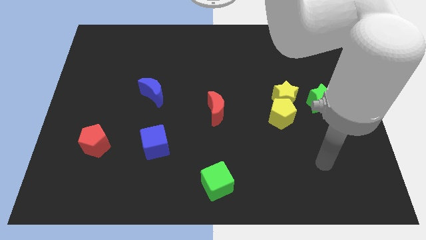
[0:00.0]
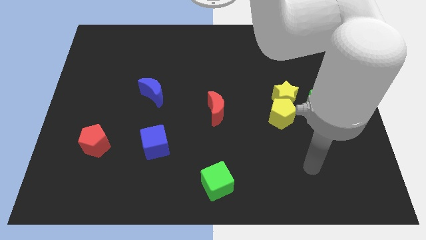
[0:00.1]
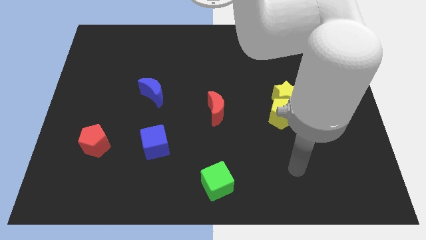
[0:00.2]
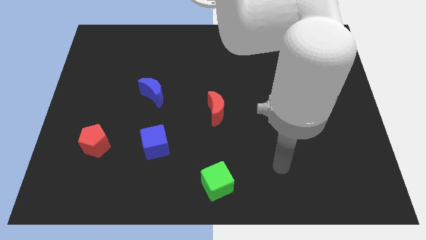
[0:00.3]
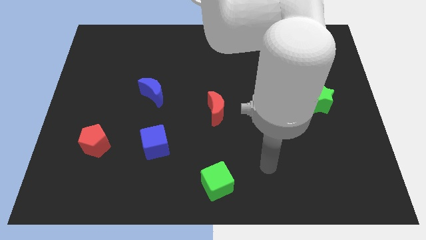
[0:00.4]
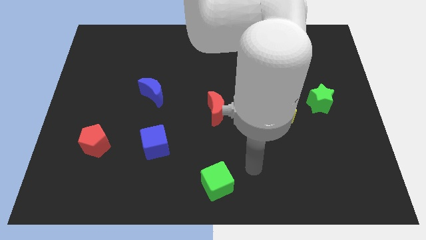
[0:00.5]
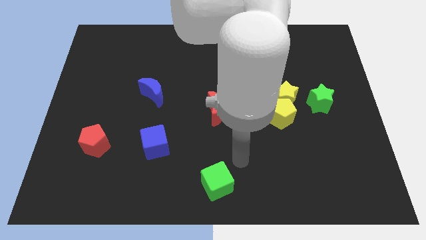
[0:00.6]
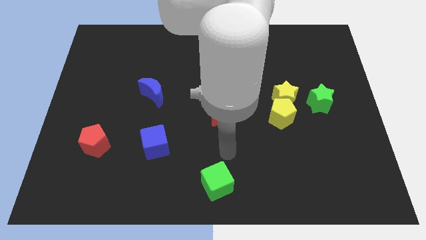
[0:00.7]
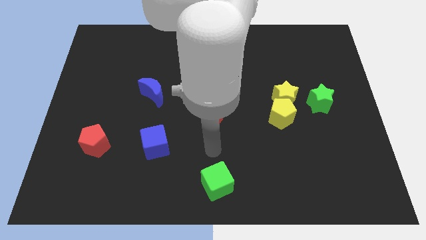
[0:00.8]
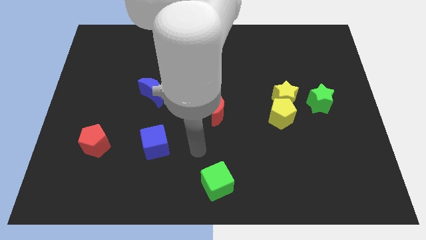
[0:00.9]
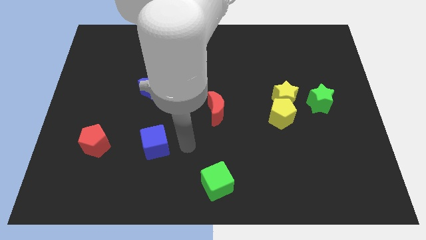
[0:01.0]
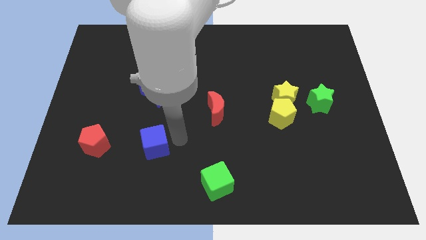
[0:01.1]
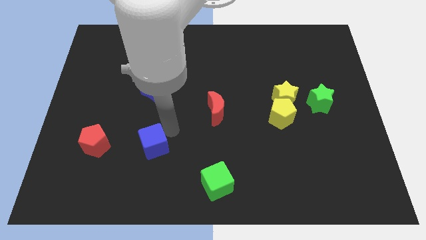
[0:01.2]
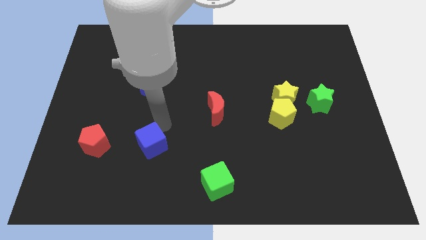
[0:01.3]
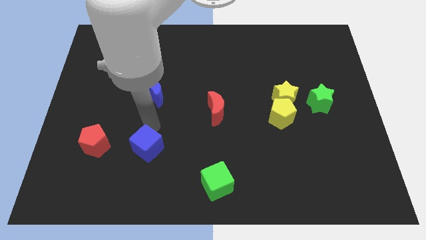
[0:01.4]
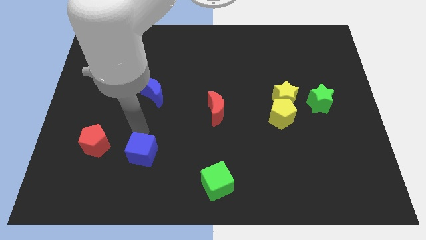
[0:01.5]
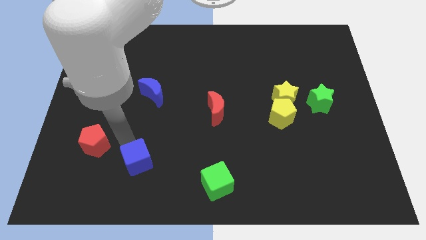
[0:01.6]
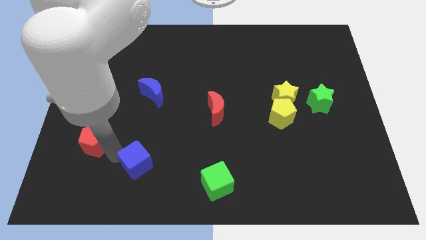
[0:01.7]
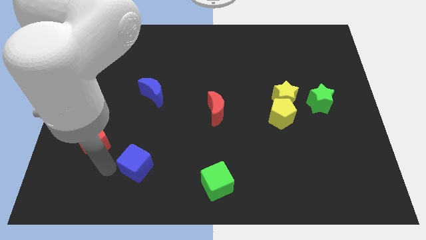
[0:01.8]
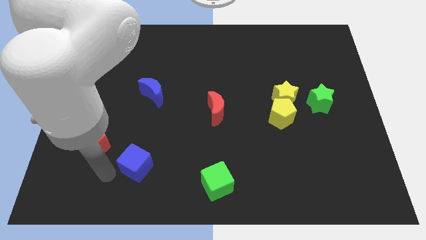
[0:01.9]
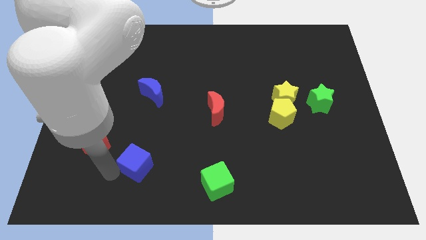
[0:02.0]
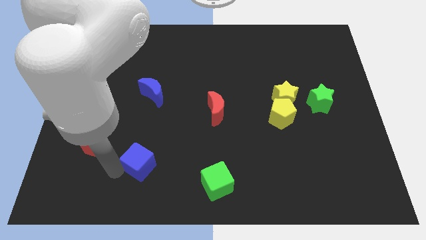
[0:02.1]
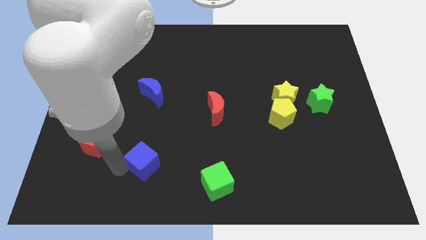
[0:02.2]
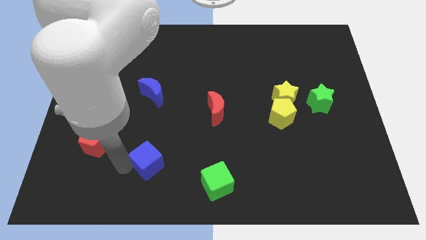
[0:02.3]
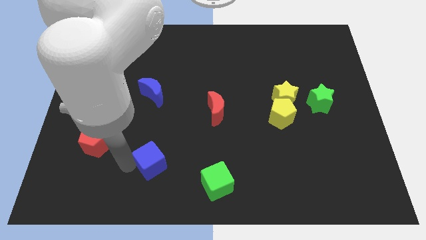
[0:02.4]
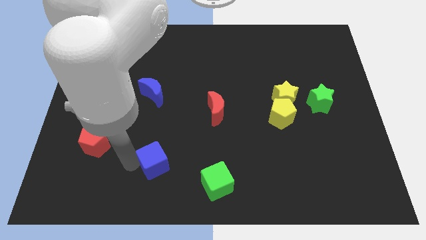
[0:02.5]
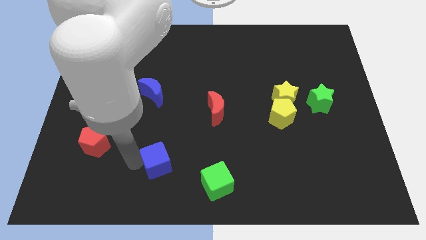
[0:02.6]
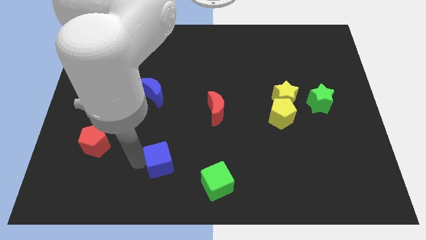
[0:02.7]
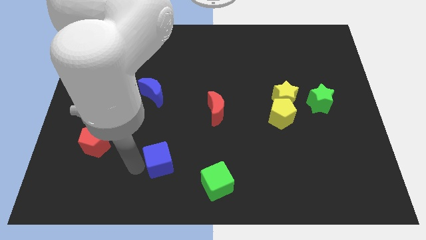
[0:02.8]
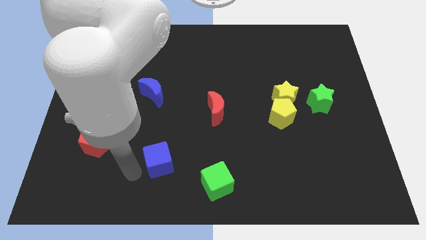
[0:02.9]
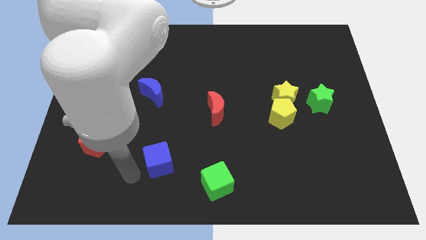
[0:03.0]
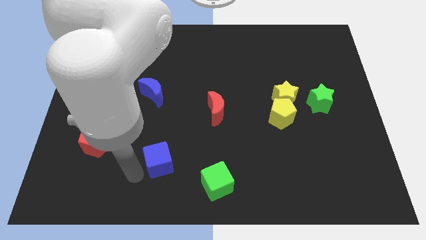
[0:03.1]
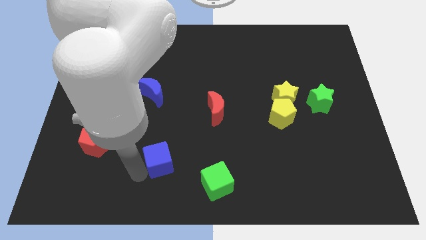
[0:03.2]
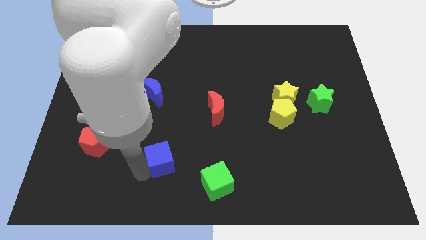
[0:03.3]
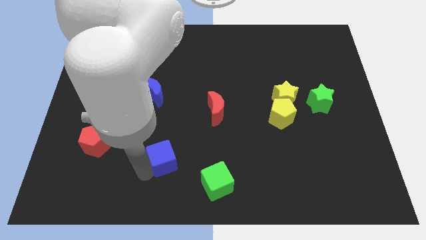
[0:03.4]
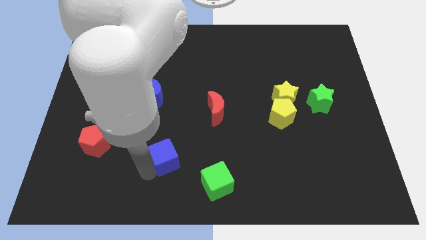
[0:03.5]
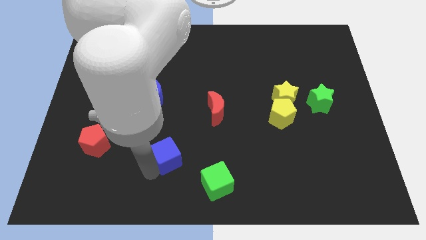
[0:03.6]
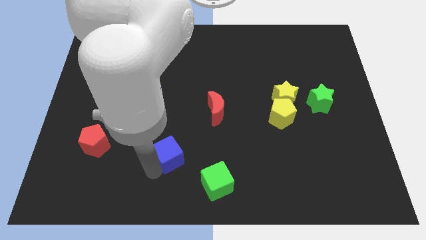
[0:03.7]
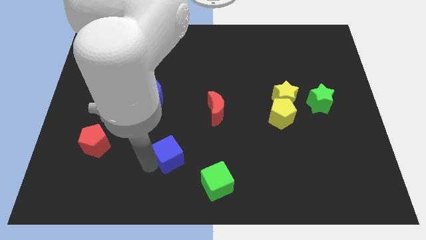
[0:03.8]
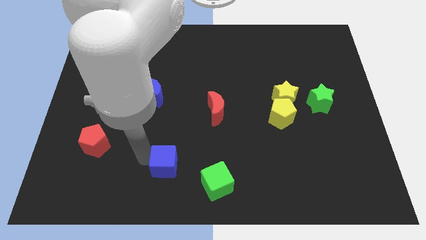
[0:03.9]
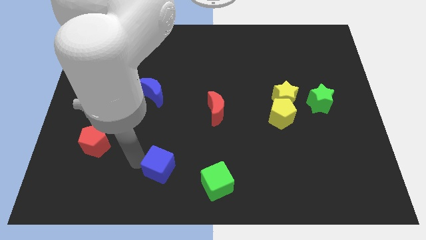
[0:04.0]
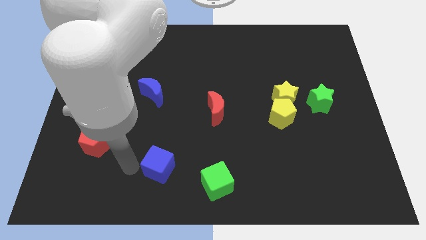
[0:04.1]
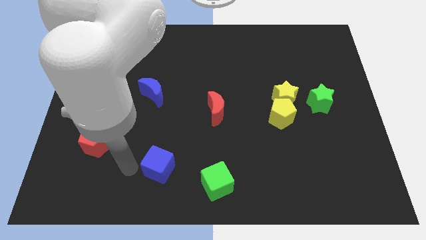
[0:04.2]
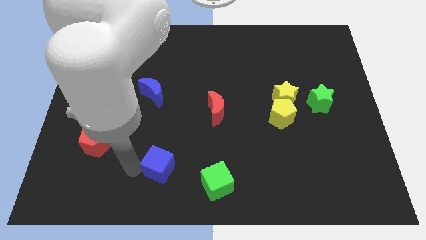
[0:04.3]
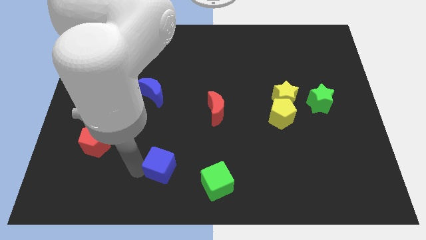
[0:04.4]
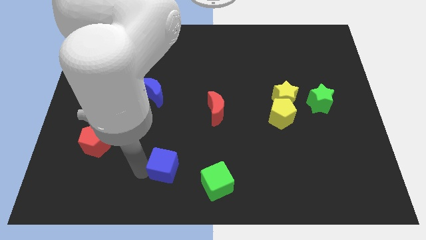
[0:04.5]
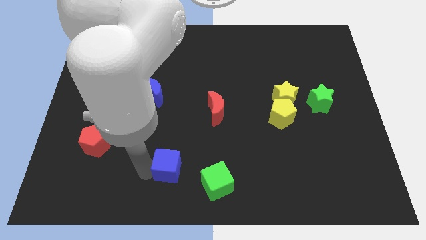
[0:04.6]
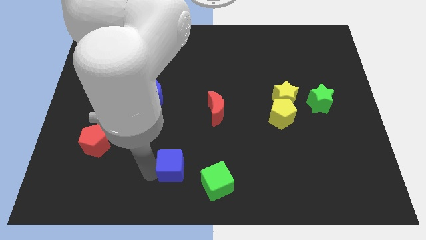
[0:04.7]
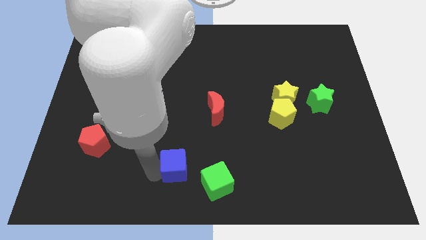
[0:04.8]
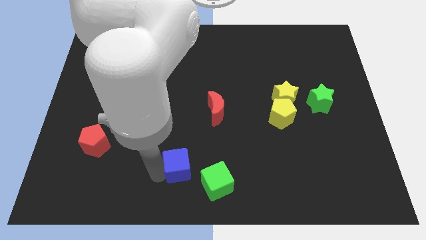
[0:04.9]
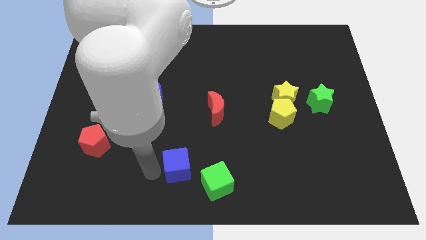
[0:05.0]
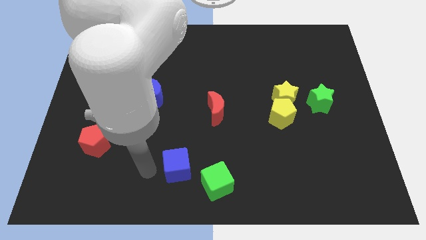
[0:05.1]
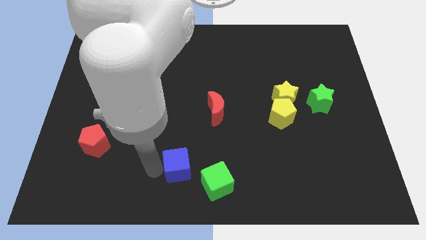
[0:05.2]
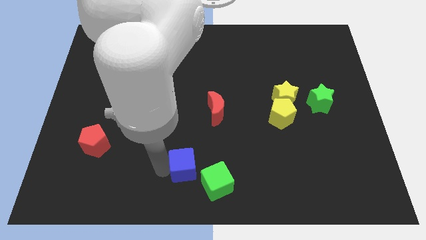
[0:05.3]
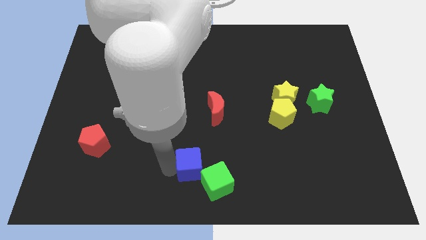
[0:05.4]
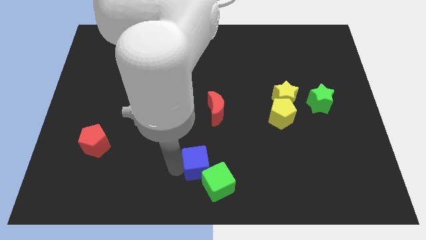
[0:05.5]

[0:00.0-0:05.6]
put the blue cube close to the green cube

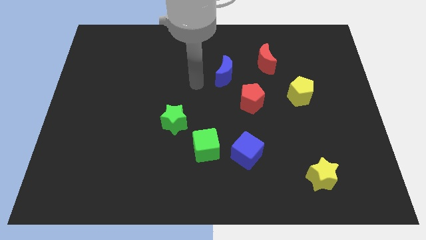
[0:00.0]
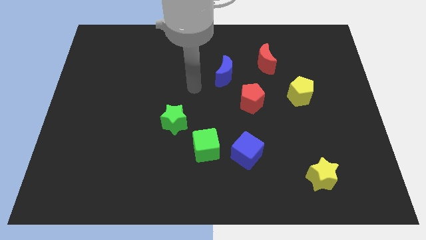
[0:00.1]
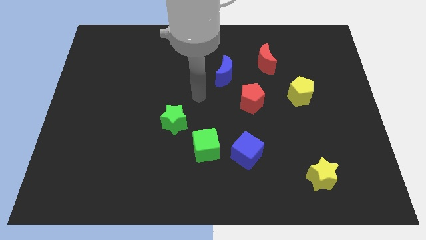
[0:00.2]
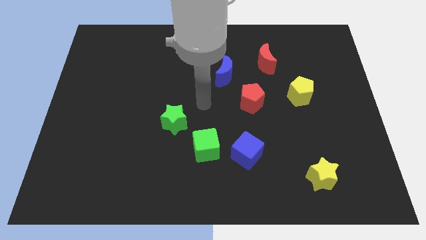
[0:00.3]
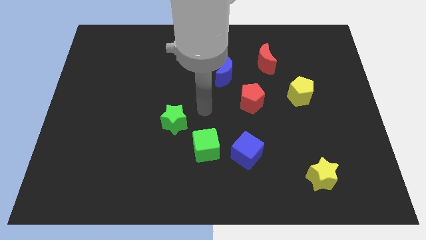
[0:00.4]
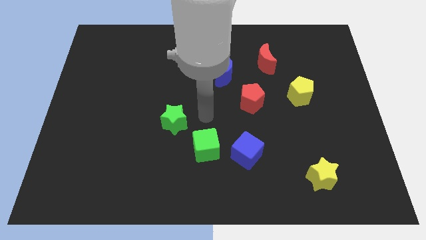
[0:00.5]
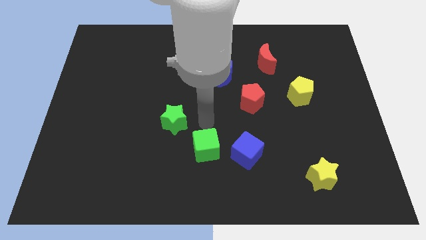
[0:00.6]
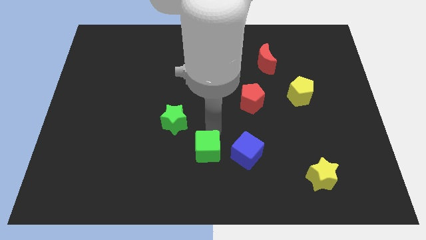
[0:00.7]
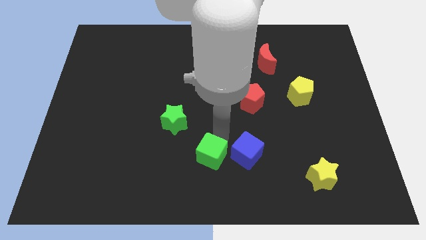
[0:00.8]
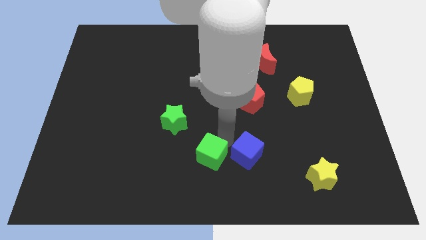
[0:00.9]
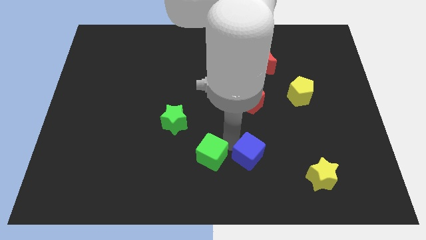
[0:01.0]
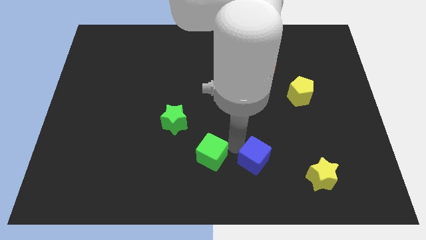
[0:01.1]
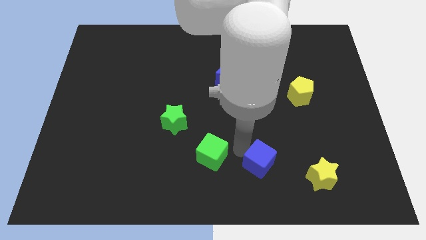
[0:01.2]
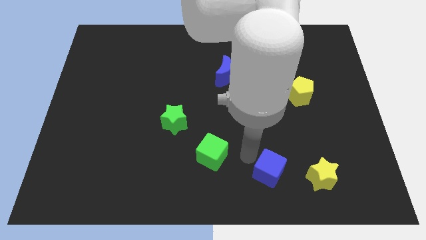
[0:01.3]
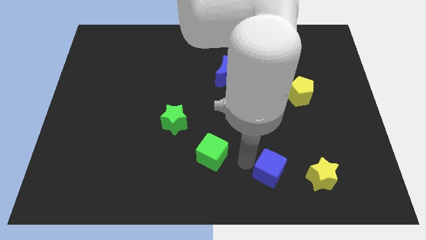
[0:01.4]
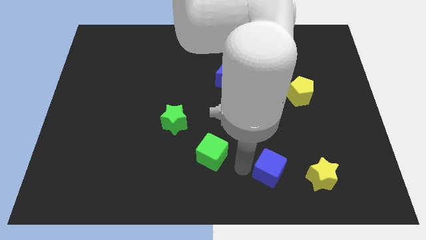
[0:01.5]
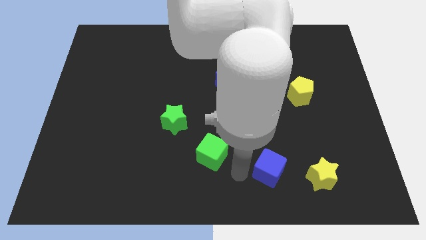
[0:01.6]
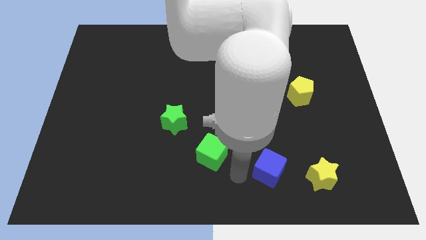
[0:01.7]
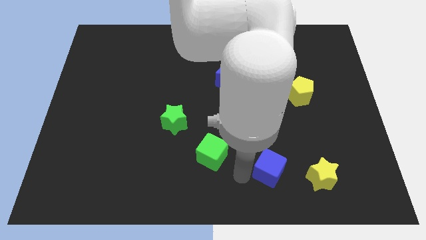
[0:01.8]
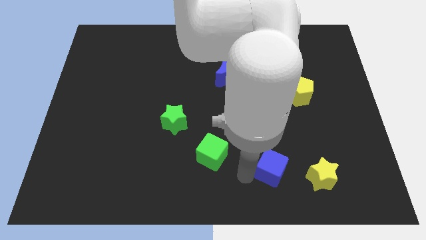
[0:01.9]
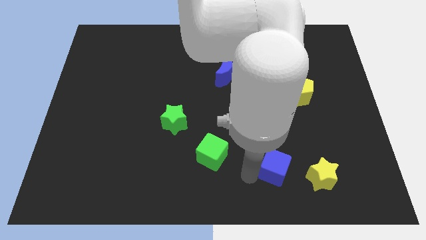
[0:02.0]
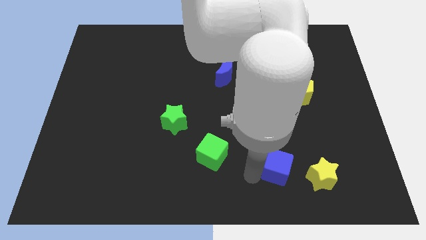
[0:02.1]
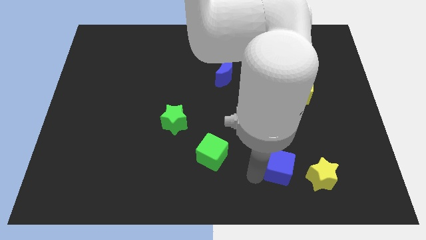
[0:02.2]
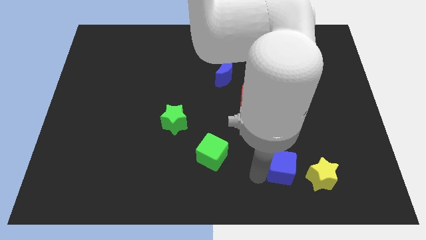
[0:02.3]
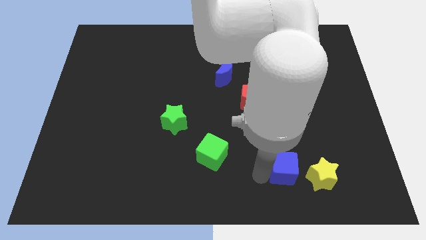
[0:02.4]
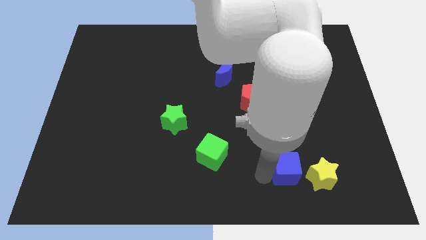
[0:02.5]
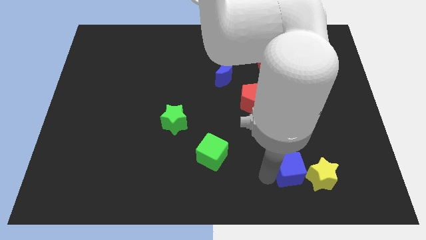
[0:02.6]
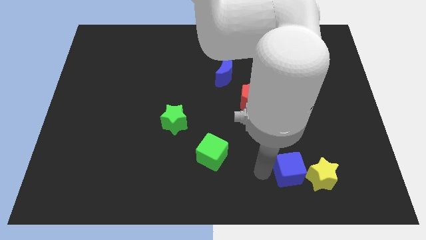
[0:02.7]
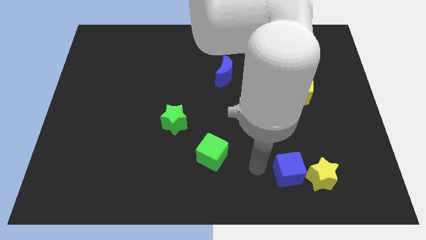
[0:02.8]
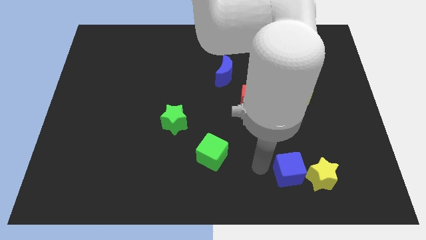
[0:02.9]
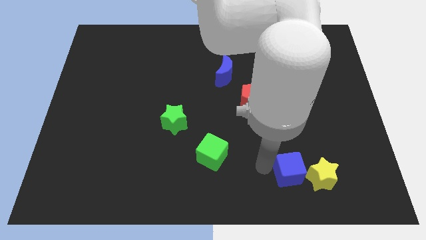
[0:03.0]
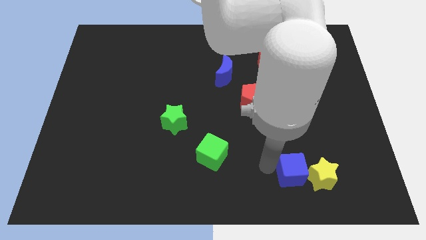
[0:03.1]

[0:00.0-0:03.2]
slide the blue cube to the yellow star
